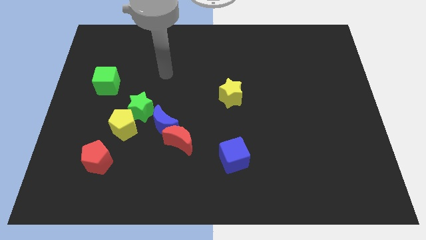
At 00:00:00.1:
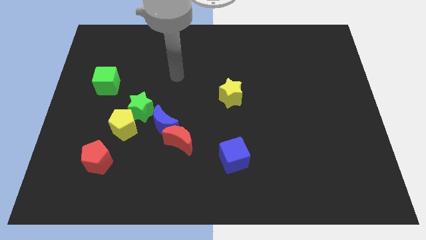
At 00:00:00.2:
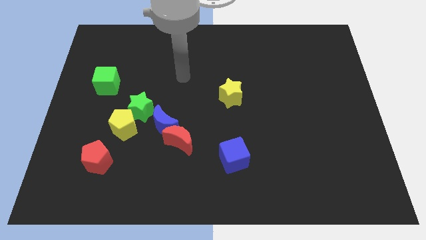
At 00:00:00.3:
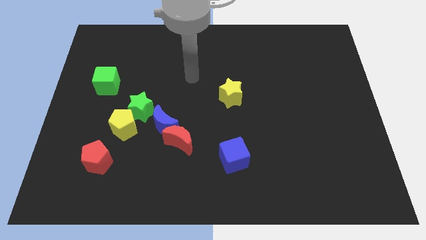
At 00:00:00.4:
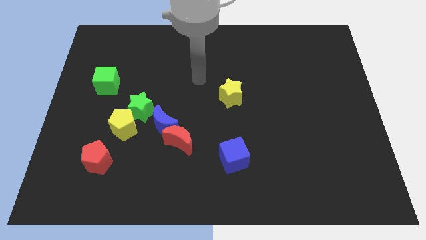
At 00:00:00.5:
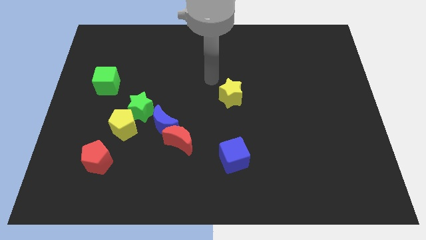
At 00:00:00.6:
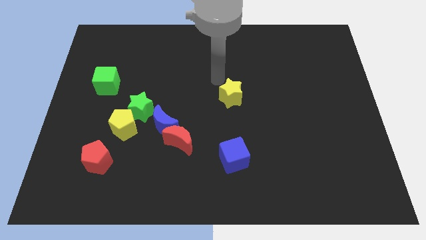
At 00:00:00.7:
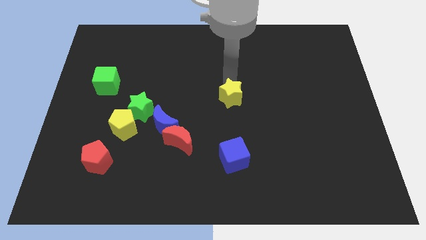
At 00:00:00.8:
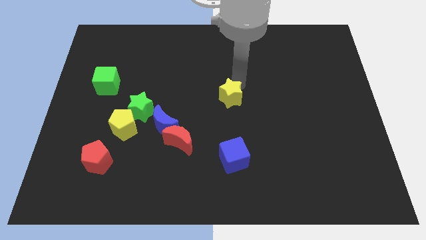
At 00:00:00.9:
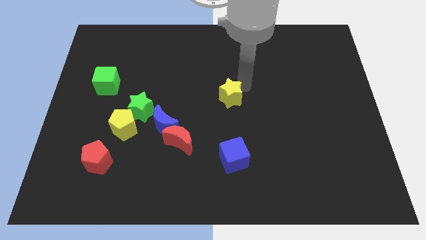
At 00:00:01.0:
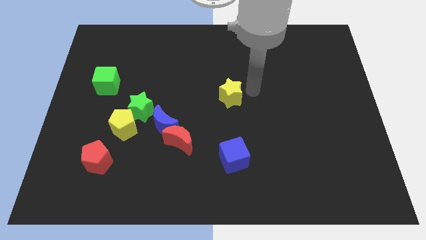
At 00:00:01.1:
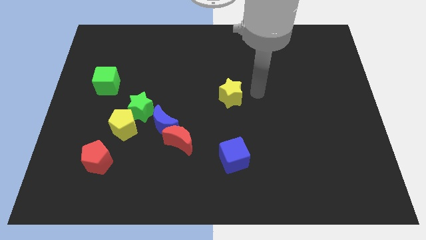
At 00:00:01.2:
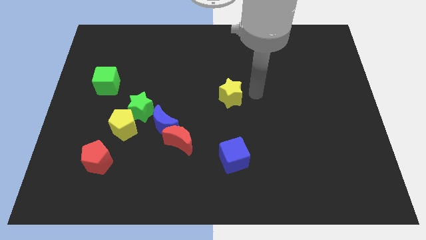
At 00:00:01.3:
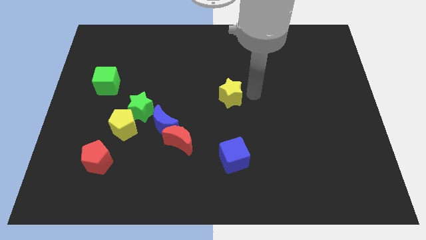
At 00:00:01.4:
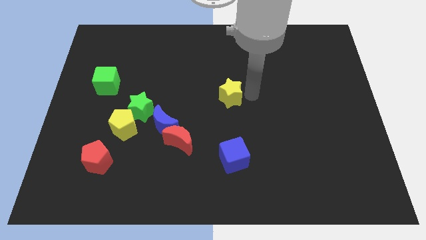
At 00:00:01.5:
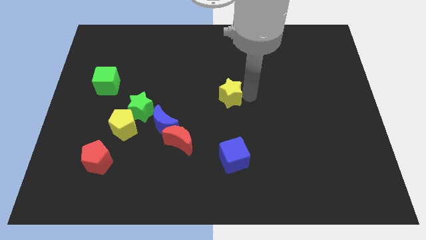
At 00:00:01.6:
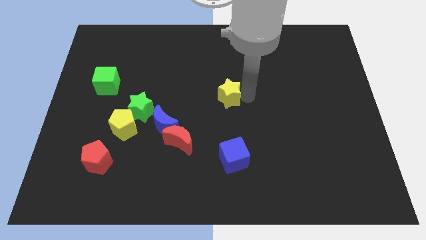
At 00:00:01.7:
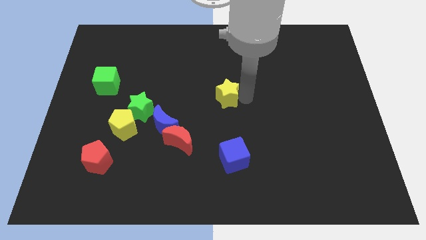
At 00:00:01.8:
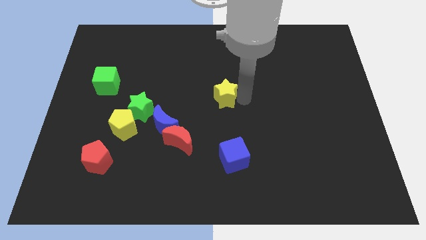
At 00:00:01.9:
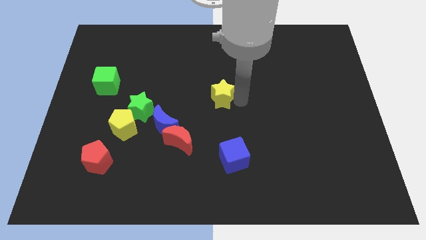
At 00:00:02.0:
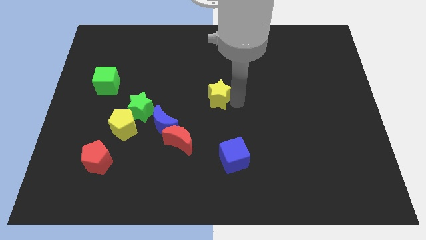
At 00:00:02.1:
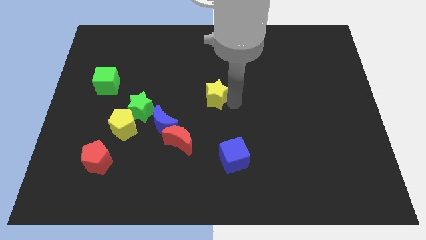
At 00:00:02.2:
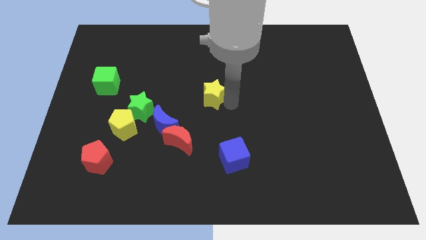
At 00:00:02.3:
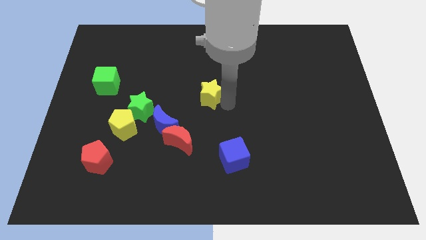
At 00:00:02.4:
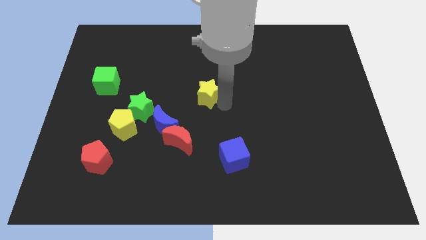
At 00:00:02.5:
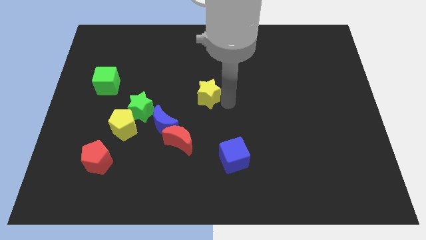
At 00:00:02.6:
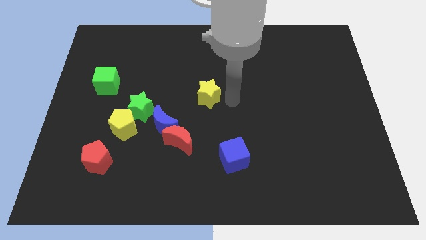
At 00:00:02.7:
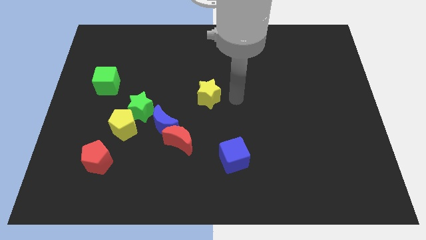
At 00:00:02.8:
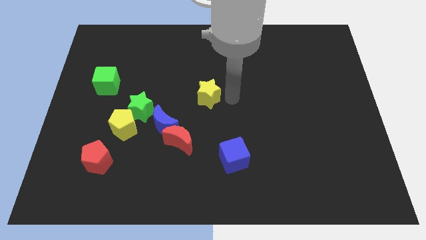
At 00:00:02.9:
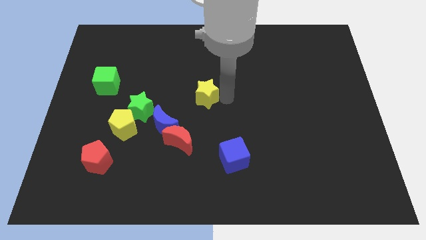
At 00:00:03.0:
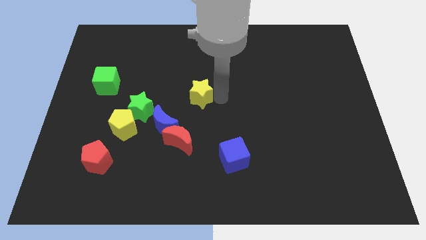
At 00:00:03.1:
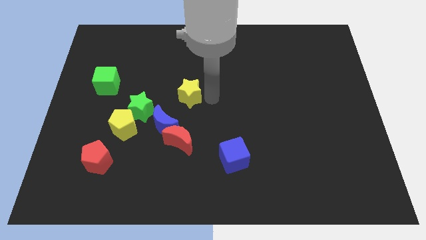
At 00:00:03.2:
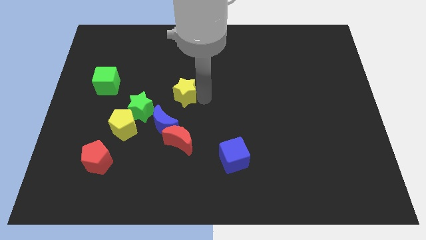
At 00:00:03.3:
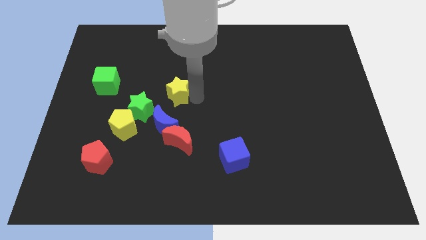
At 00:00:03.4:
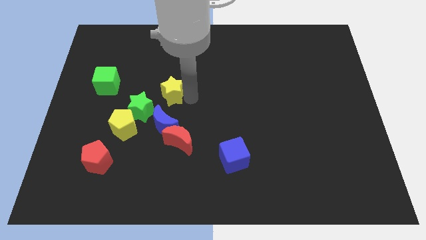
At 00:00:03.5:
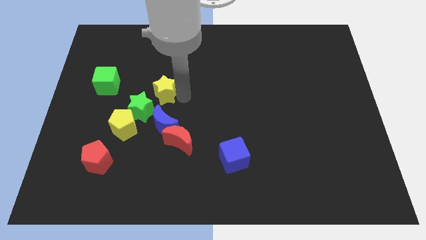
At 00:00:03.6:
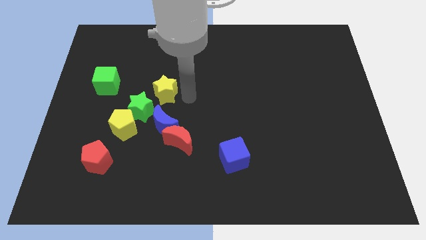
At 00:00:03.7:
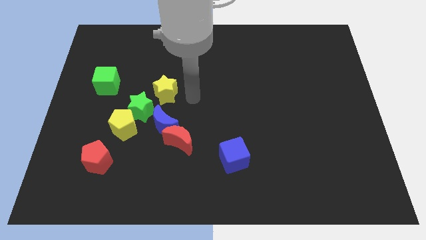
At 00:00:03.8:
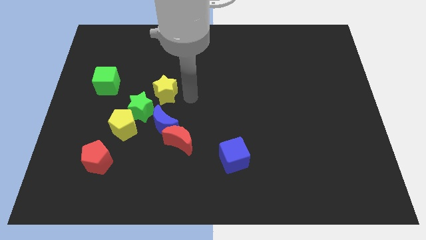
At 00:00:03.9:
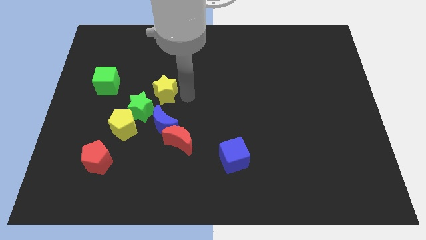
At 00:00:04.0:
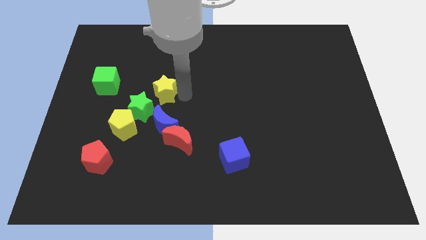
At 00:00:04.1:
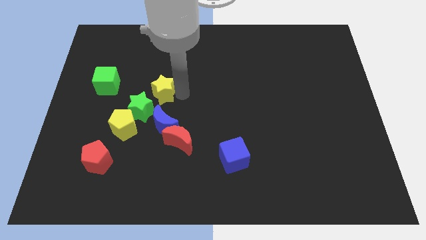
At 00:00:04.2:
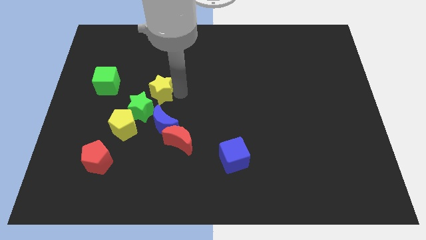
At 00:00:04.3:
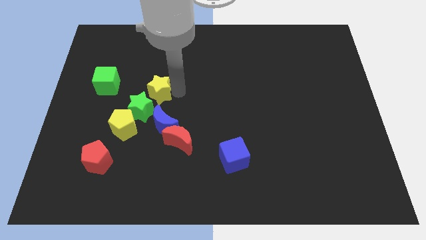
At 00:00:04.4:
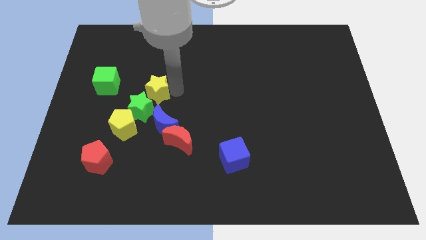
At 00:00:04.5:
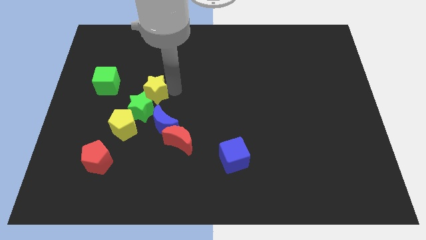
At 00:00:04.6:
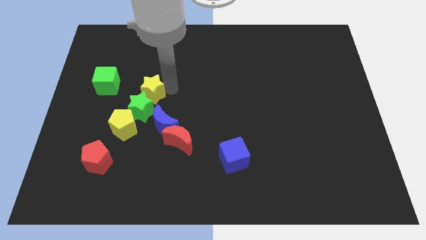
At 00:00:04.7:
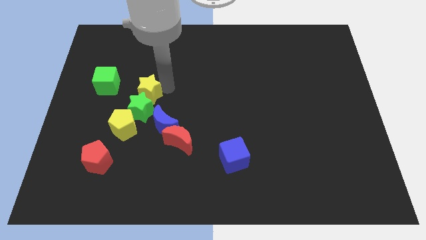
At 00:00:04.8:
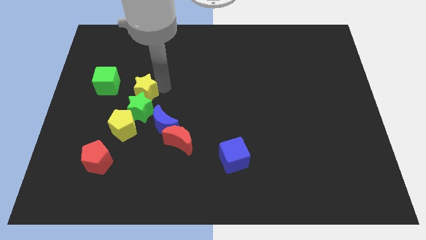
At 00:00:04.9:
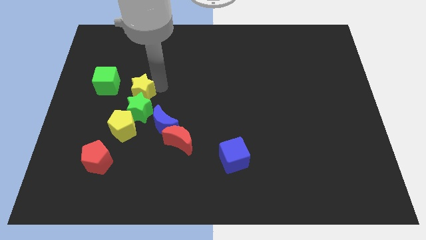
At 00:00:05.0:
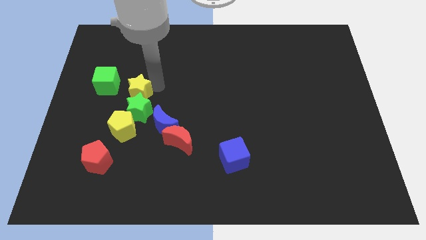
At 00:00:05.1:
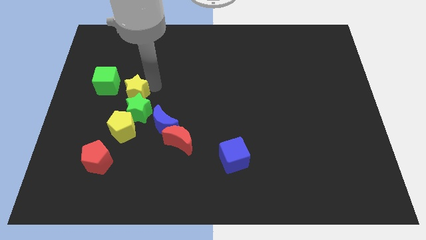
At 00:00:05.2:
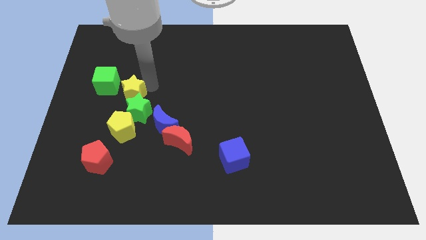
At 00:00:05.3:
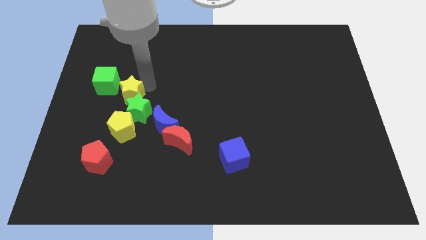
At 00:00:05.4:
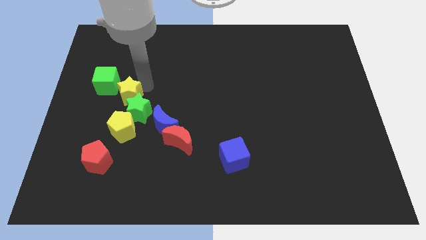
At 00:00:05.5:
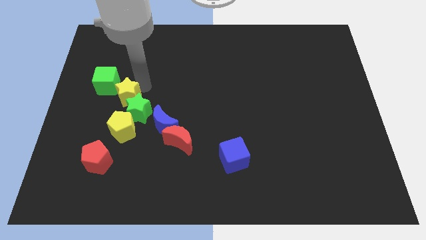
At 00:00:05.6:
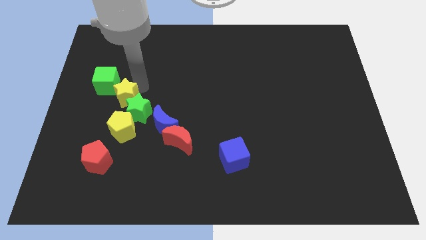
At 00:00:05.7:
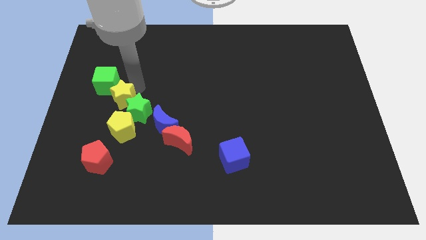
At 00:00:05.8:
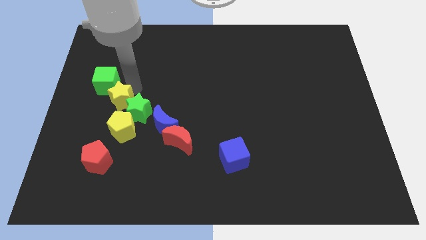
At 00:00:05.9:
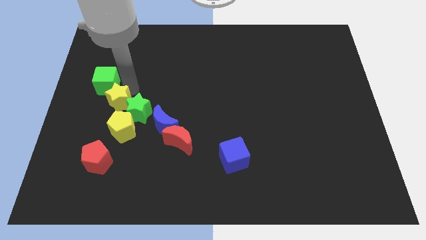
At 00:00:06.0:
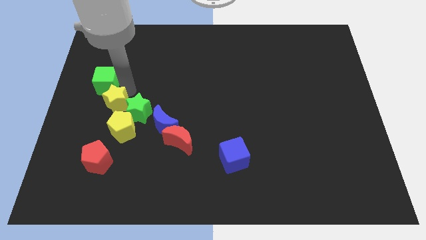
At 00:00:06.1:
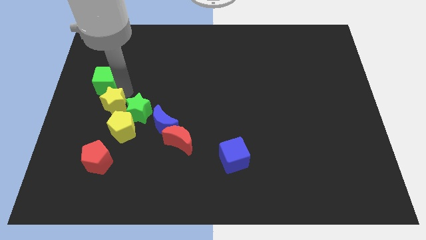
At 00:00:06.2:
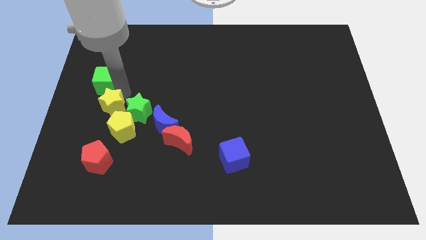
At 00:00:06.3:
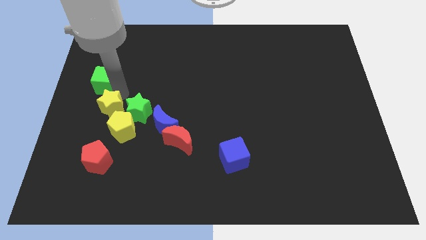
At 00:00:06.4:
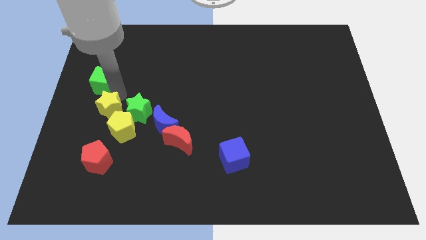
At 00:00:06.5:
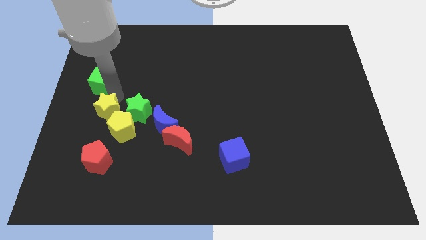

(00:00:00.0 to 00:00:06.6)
slide the yellow star to the left side of the blue moon

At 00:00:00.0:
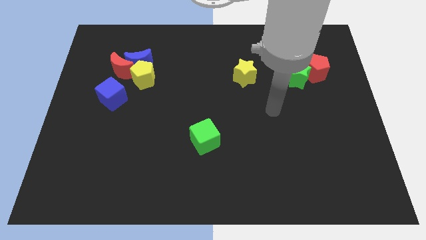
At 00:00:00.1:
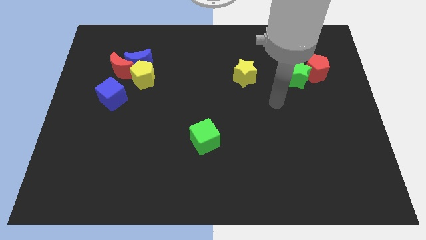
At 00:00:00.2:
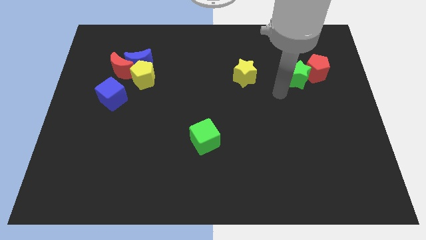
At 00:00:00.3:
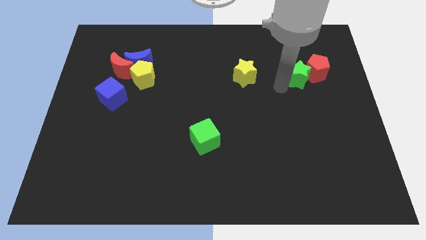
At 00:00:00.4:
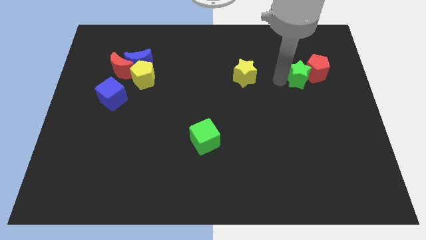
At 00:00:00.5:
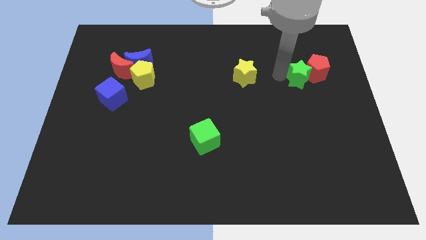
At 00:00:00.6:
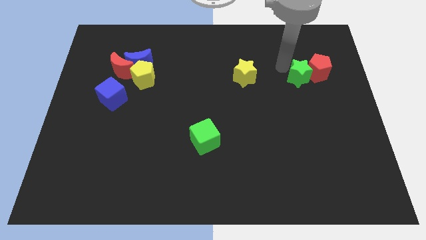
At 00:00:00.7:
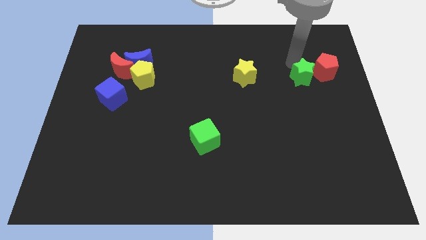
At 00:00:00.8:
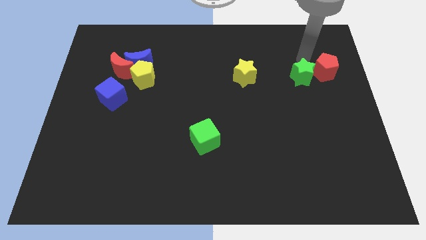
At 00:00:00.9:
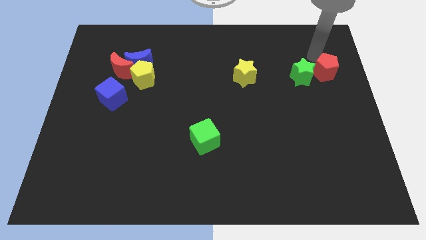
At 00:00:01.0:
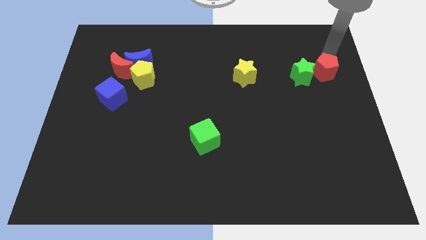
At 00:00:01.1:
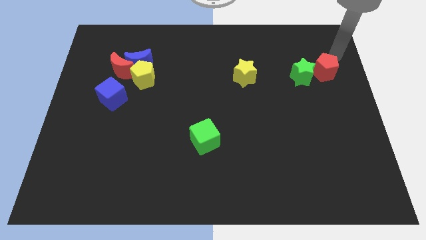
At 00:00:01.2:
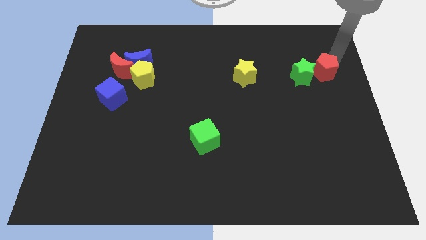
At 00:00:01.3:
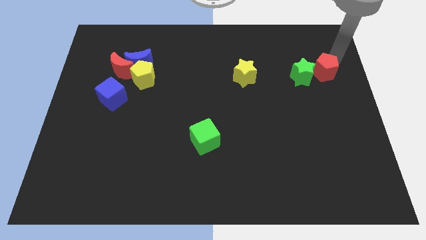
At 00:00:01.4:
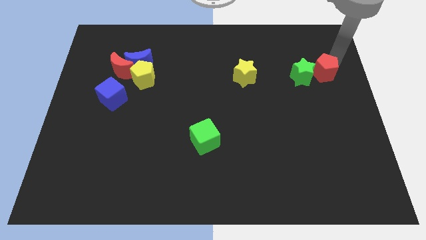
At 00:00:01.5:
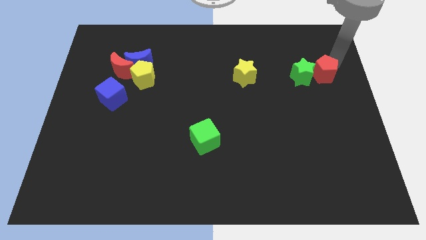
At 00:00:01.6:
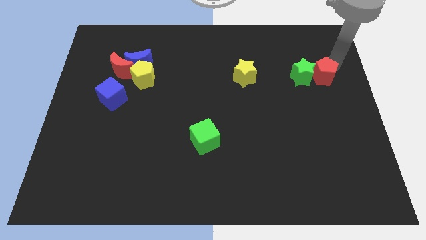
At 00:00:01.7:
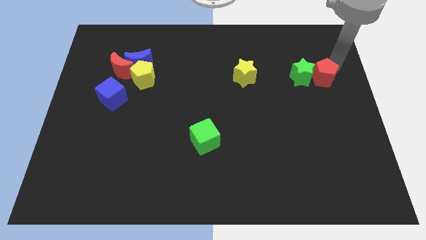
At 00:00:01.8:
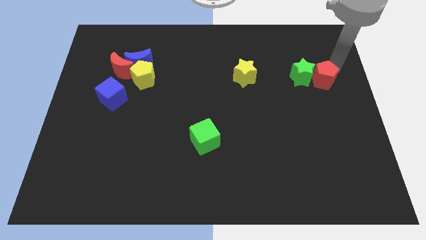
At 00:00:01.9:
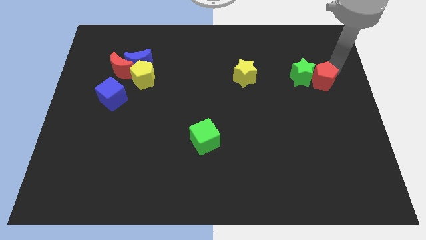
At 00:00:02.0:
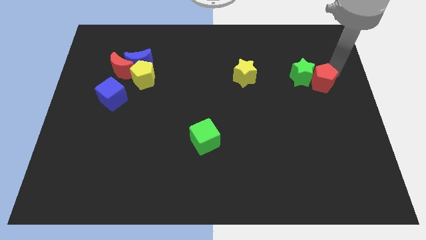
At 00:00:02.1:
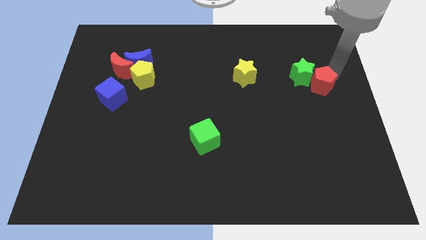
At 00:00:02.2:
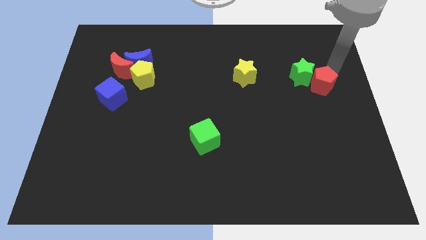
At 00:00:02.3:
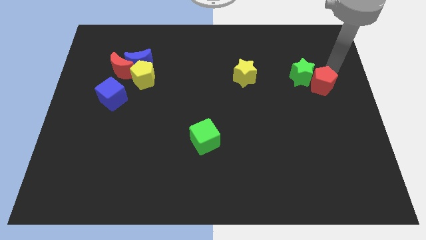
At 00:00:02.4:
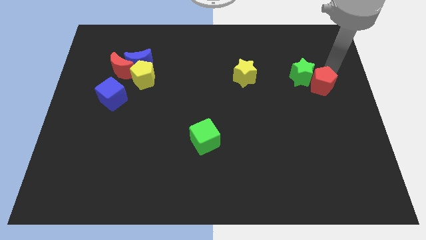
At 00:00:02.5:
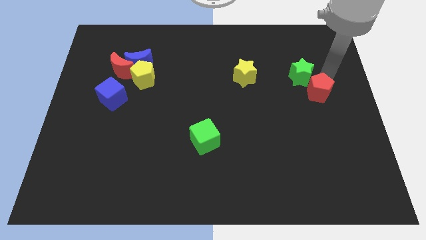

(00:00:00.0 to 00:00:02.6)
slide the red pentagon below the green star
